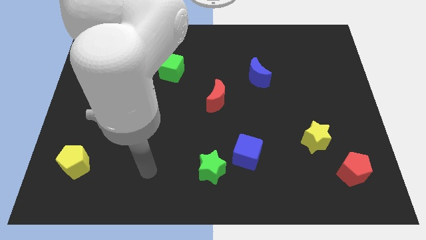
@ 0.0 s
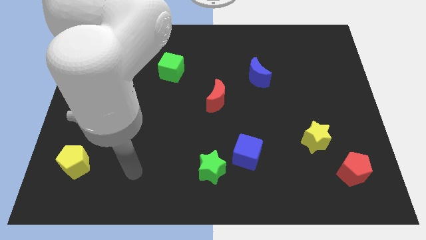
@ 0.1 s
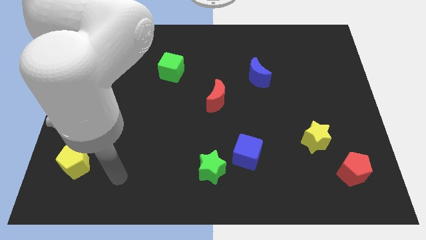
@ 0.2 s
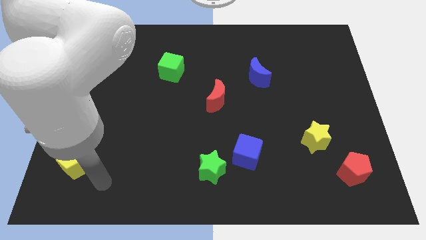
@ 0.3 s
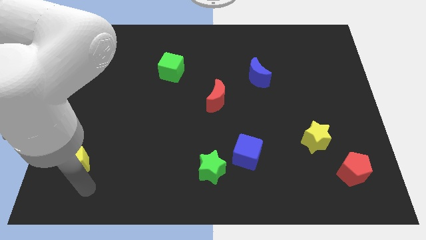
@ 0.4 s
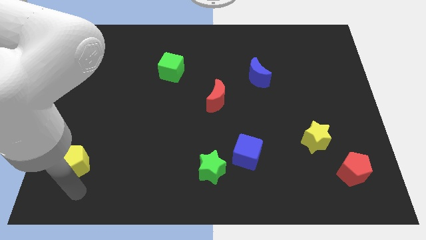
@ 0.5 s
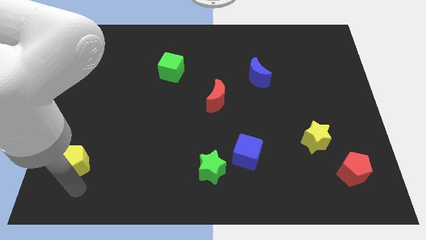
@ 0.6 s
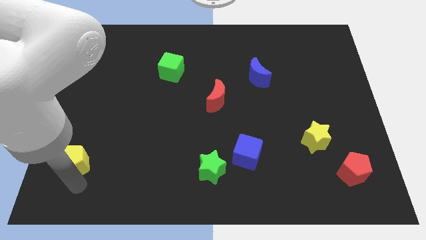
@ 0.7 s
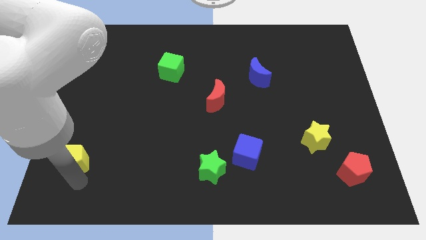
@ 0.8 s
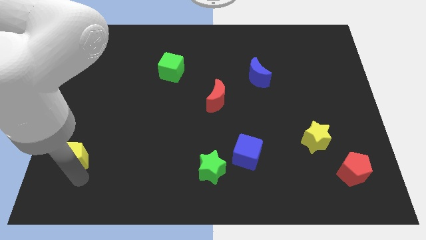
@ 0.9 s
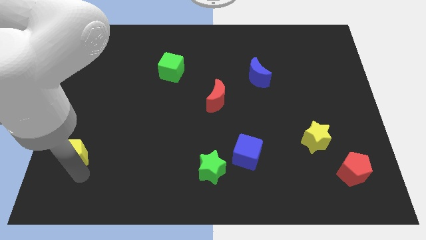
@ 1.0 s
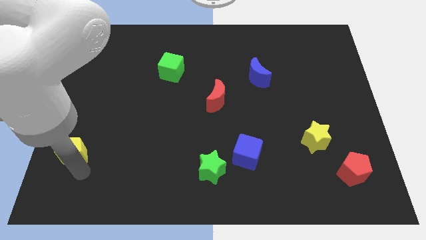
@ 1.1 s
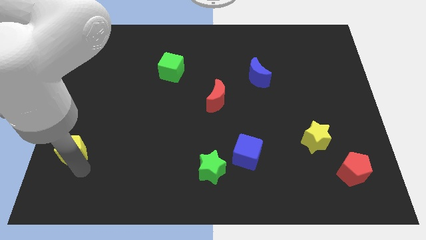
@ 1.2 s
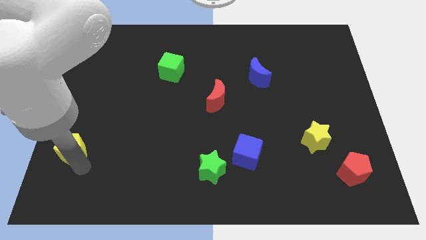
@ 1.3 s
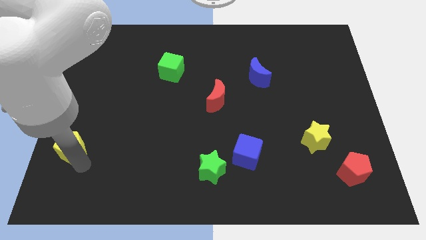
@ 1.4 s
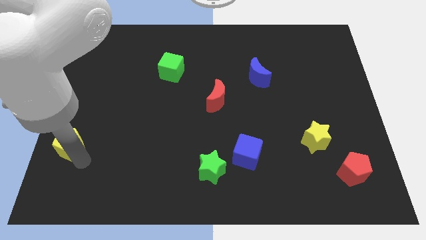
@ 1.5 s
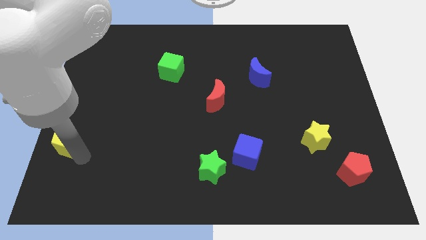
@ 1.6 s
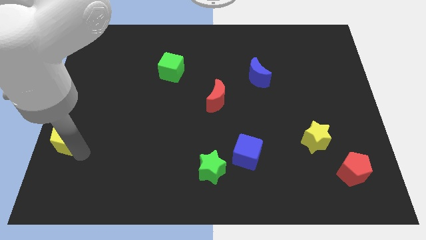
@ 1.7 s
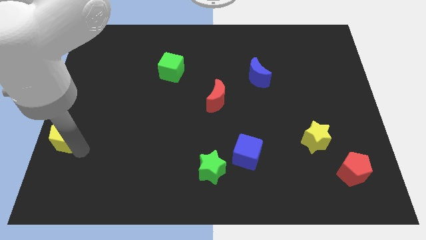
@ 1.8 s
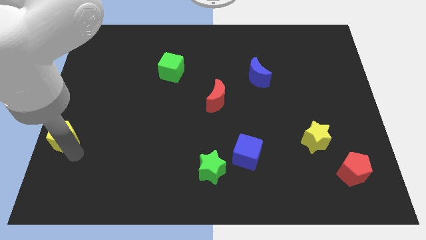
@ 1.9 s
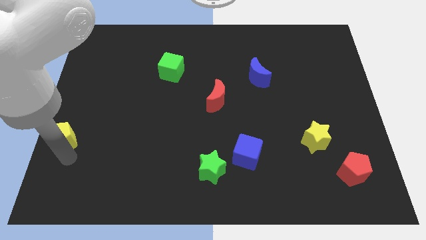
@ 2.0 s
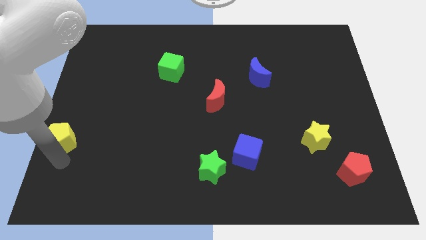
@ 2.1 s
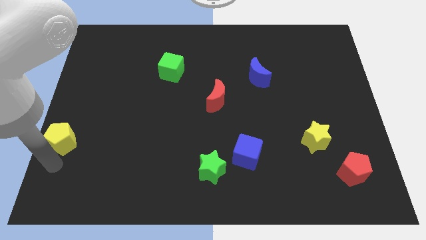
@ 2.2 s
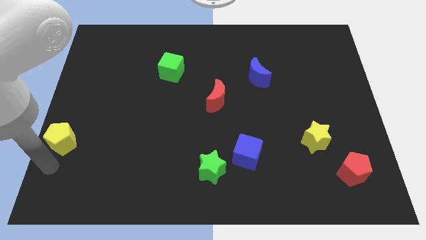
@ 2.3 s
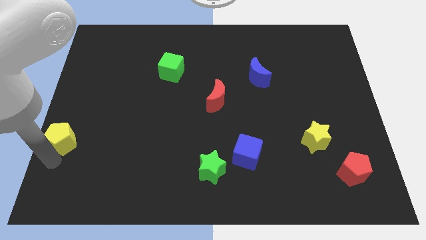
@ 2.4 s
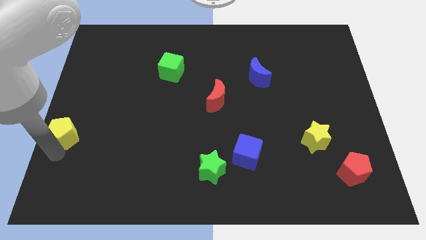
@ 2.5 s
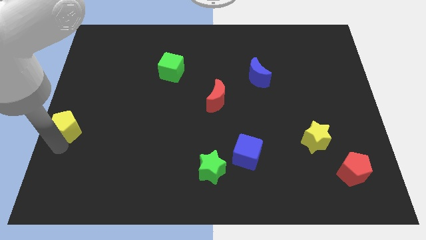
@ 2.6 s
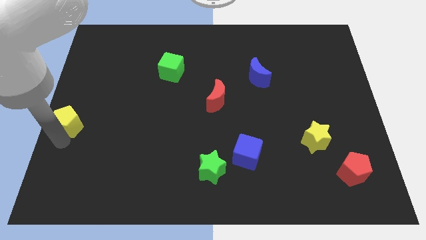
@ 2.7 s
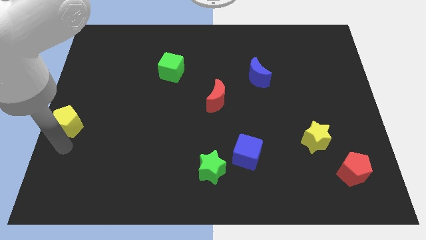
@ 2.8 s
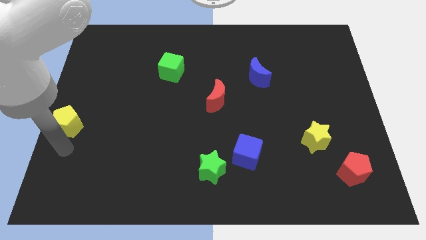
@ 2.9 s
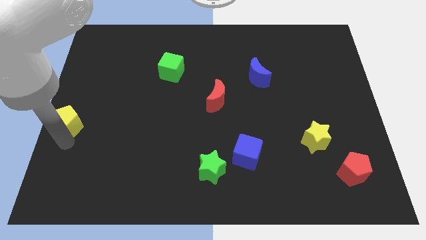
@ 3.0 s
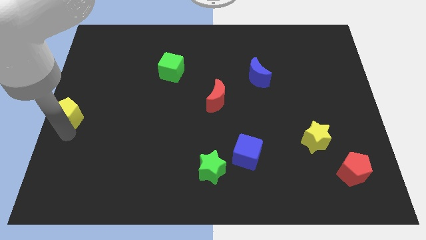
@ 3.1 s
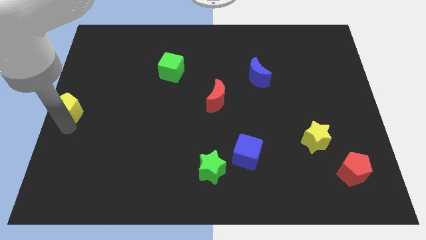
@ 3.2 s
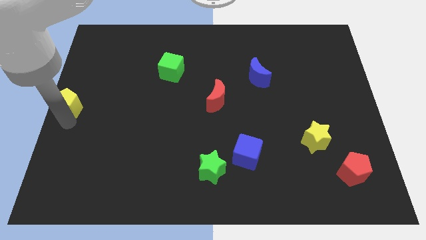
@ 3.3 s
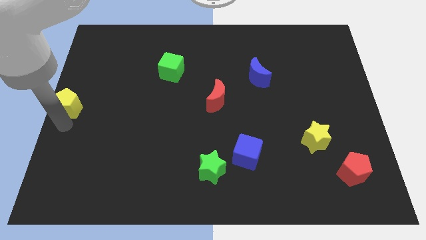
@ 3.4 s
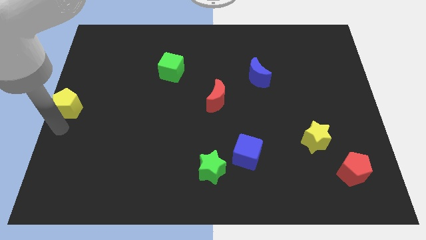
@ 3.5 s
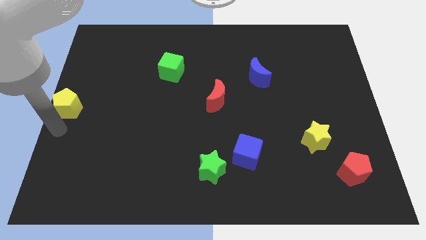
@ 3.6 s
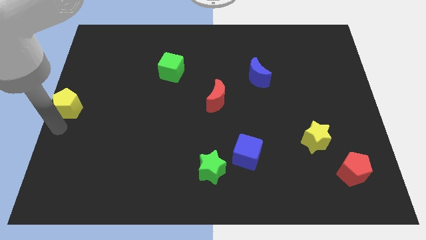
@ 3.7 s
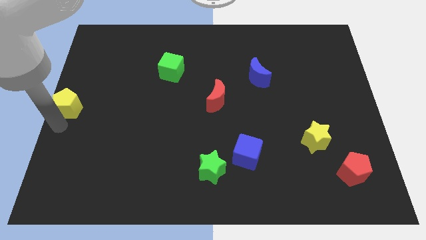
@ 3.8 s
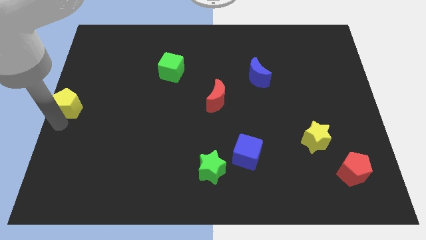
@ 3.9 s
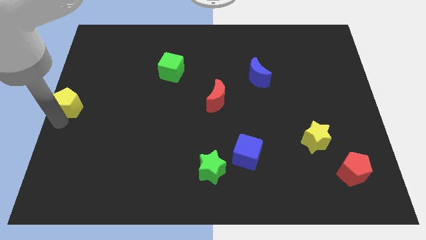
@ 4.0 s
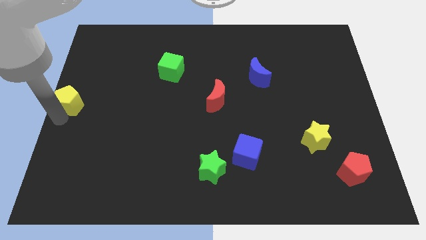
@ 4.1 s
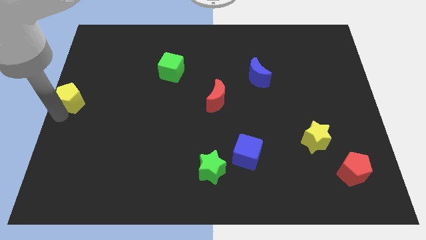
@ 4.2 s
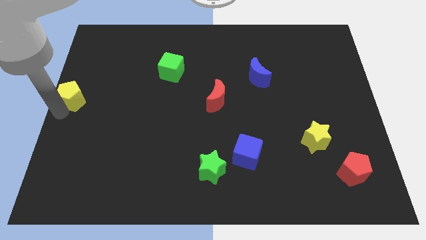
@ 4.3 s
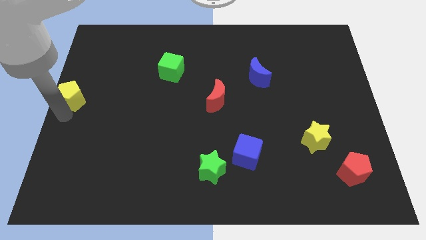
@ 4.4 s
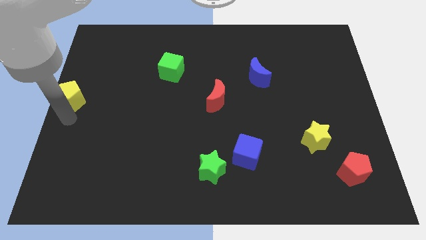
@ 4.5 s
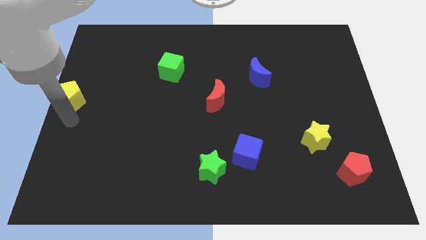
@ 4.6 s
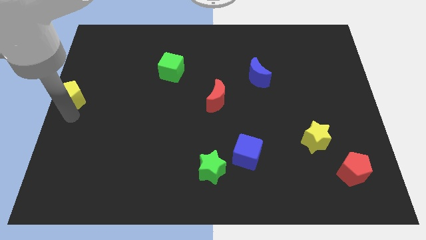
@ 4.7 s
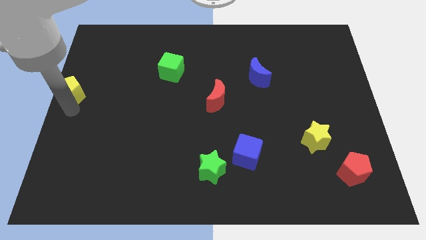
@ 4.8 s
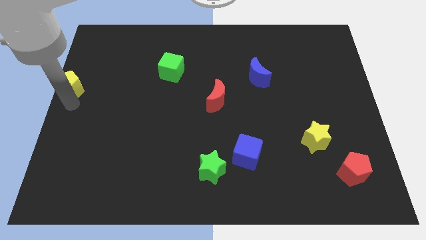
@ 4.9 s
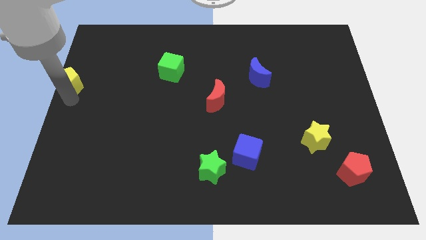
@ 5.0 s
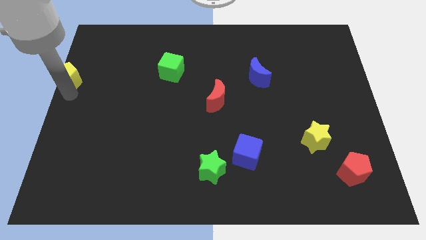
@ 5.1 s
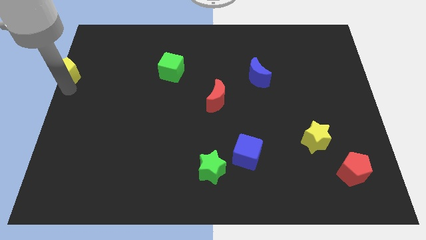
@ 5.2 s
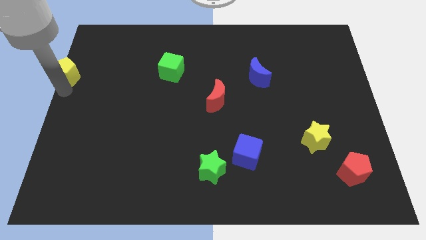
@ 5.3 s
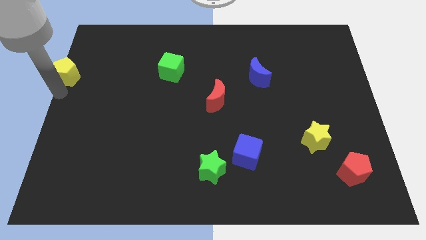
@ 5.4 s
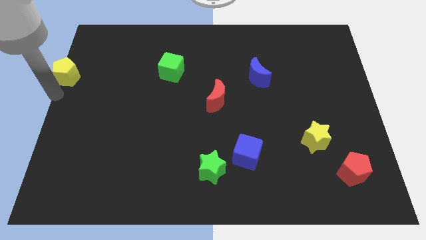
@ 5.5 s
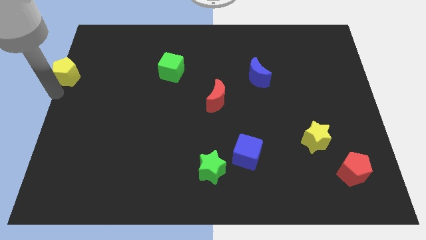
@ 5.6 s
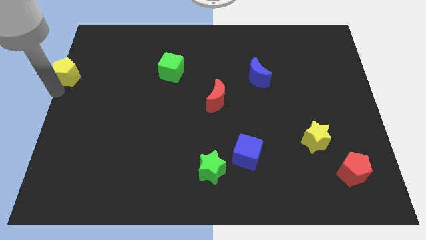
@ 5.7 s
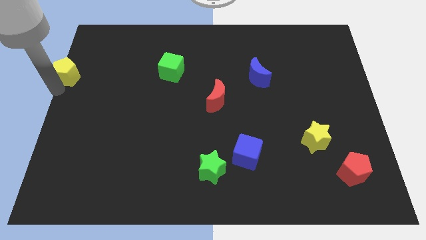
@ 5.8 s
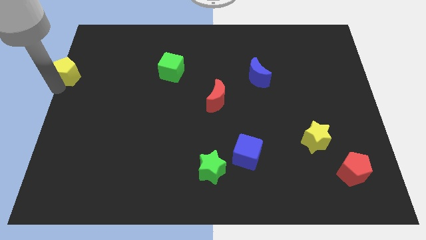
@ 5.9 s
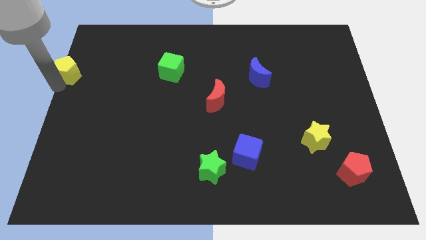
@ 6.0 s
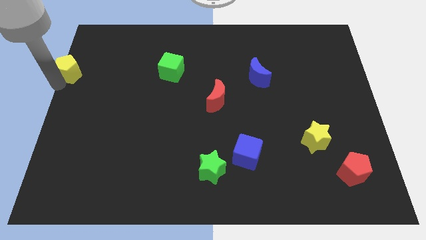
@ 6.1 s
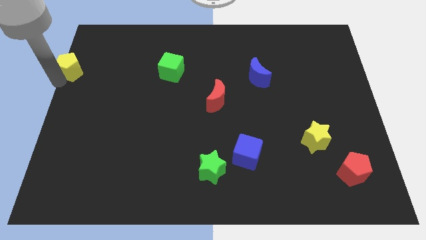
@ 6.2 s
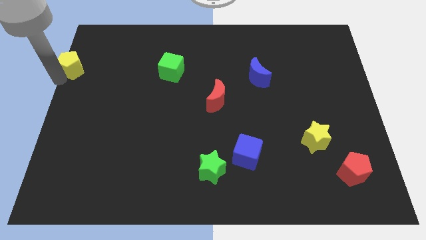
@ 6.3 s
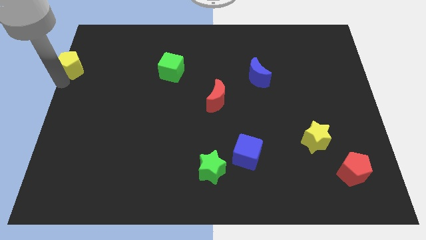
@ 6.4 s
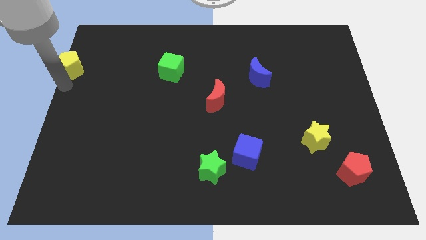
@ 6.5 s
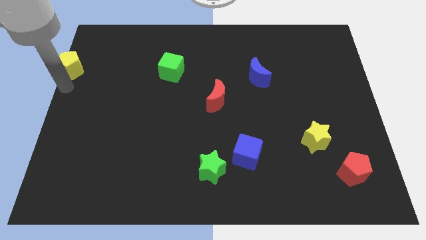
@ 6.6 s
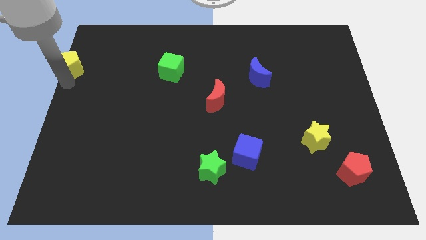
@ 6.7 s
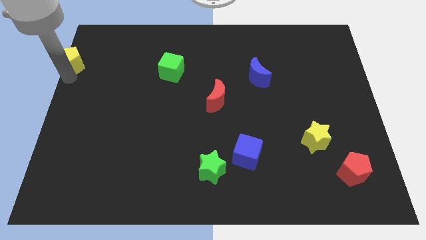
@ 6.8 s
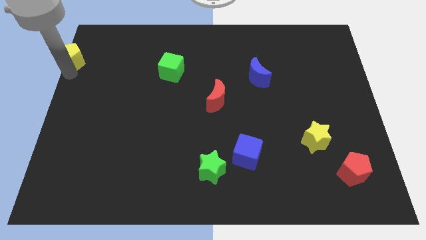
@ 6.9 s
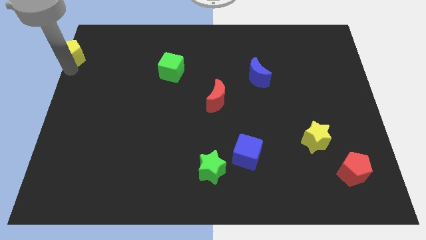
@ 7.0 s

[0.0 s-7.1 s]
slide the yellow pentagon to the top left of the board

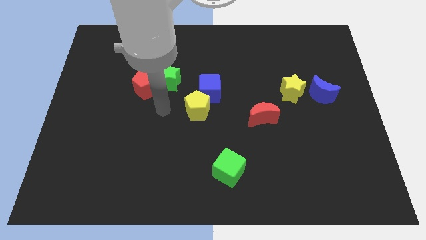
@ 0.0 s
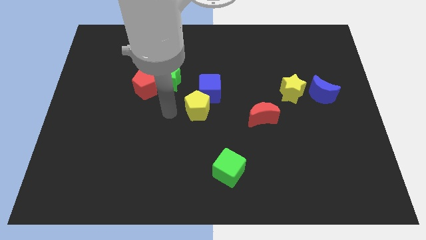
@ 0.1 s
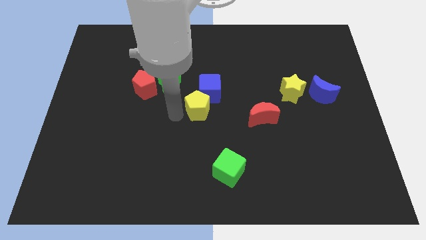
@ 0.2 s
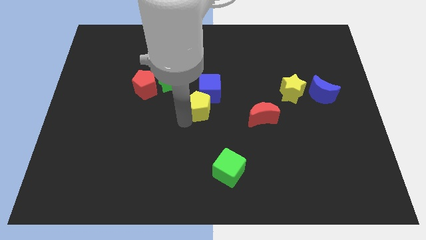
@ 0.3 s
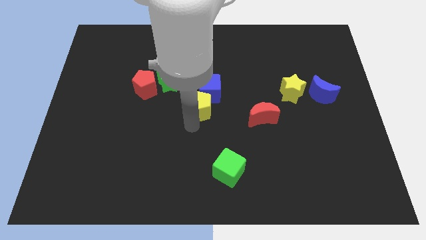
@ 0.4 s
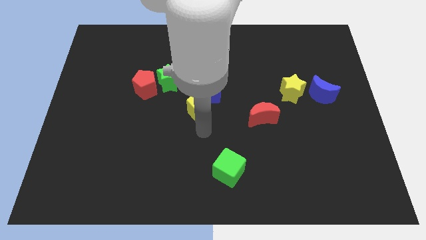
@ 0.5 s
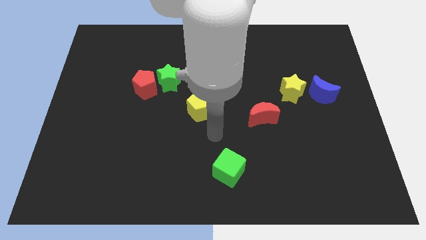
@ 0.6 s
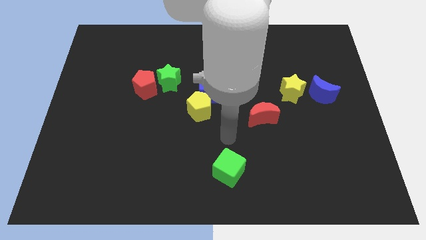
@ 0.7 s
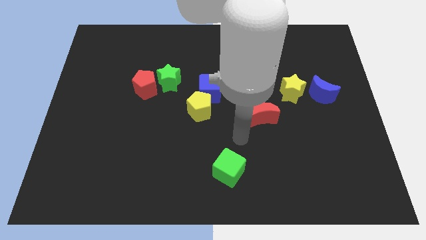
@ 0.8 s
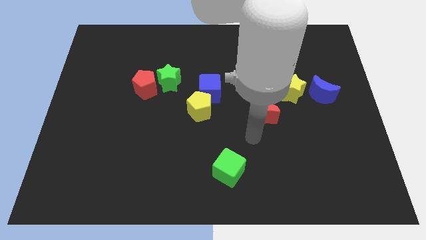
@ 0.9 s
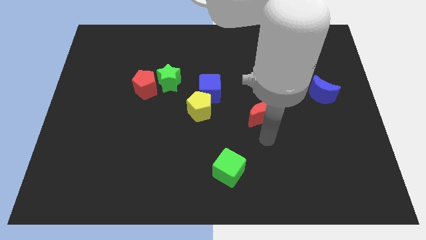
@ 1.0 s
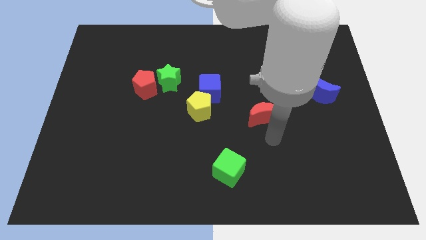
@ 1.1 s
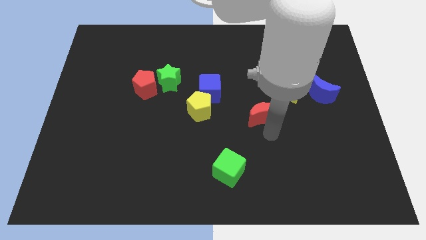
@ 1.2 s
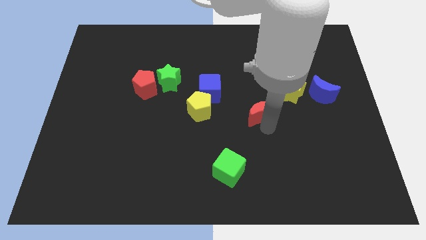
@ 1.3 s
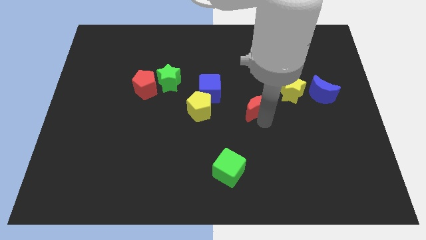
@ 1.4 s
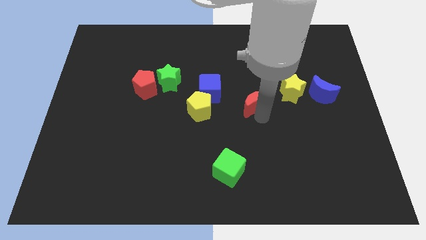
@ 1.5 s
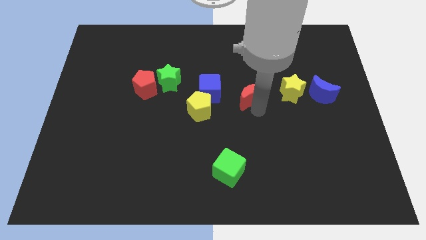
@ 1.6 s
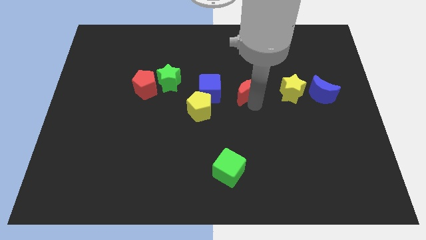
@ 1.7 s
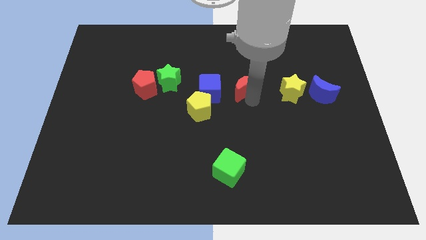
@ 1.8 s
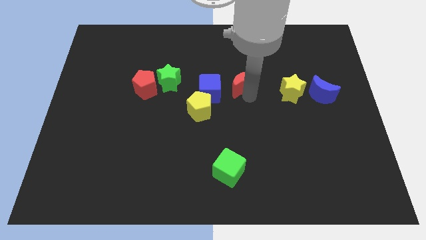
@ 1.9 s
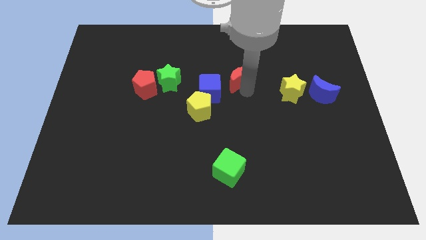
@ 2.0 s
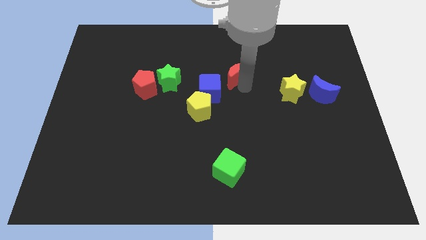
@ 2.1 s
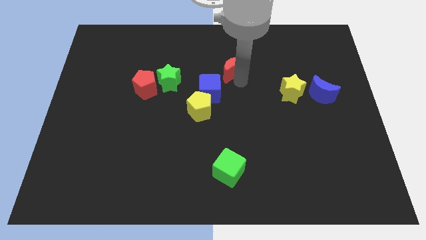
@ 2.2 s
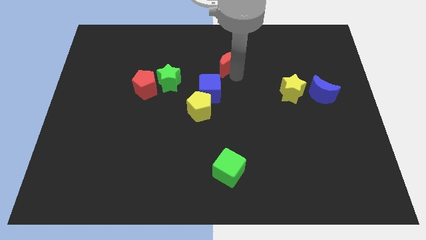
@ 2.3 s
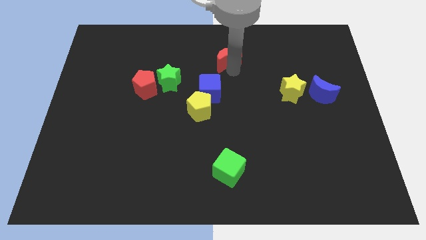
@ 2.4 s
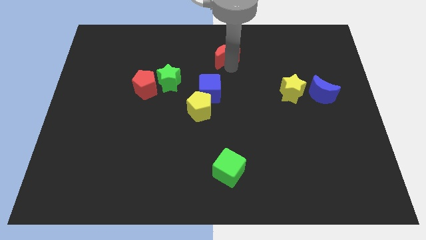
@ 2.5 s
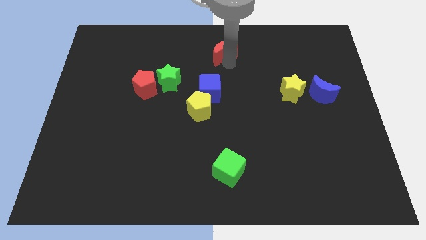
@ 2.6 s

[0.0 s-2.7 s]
push the red moon to the top side
